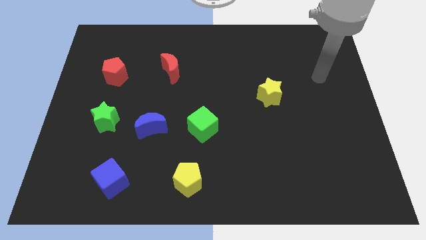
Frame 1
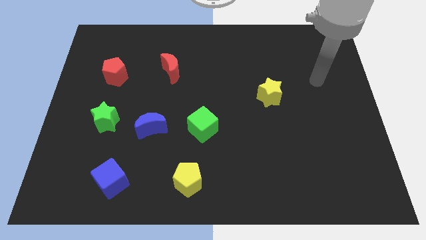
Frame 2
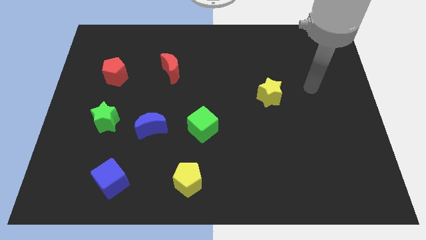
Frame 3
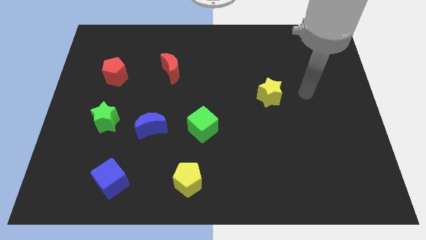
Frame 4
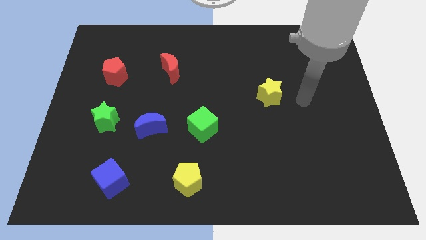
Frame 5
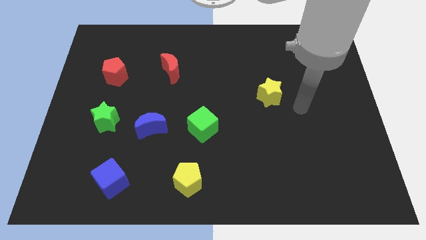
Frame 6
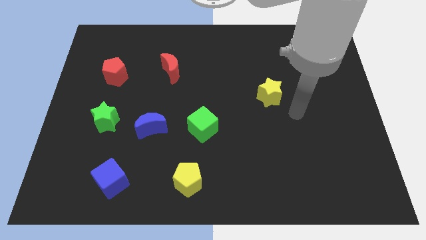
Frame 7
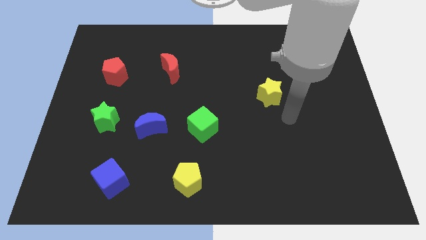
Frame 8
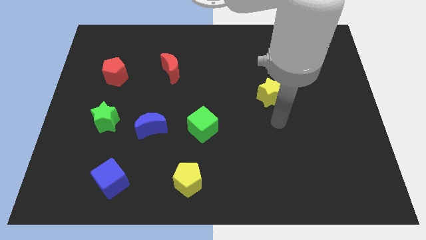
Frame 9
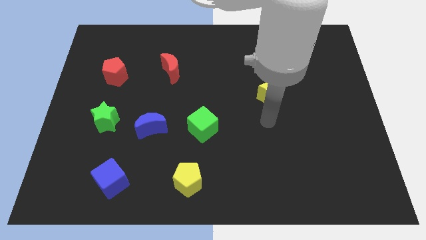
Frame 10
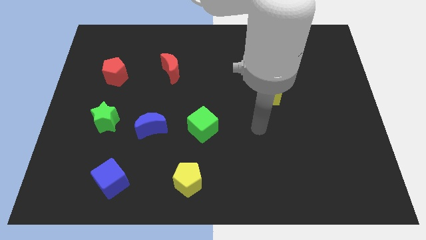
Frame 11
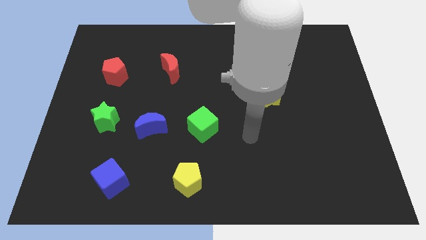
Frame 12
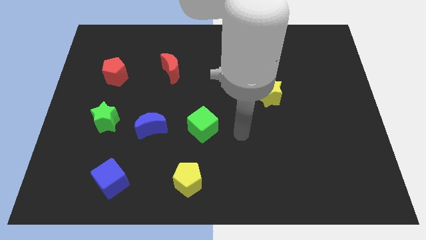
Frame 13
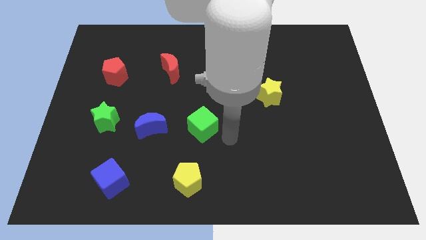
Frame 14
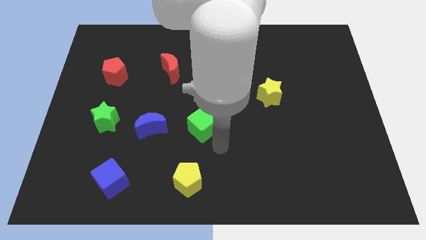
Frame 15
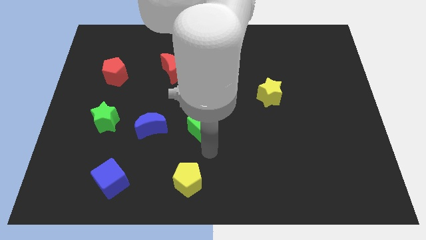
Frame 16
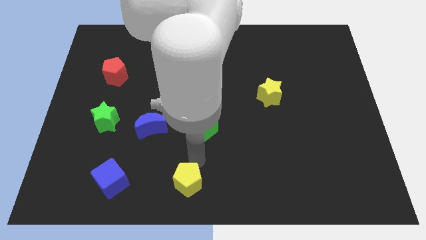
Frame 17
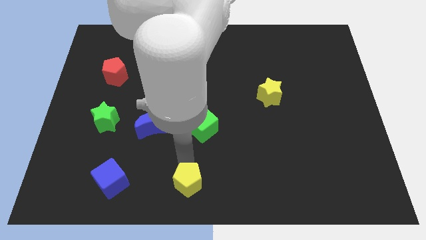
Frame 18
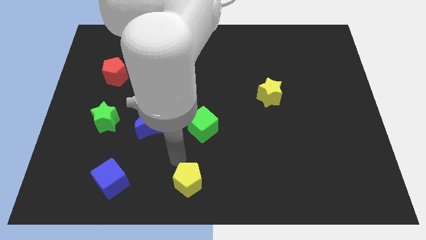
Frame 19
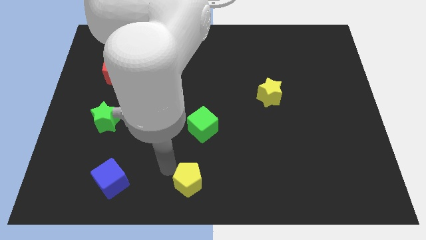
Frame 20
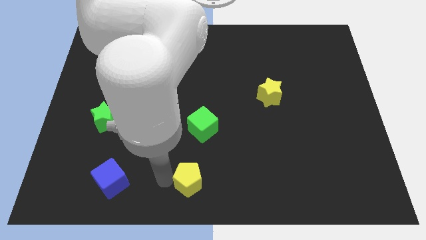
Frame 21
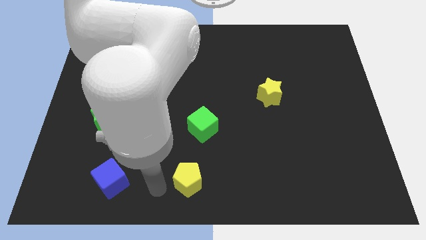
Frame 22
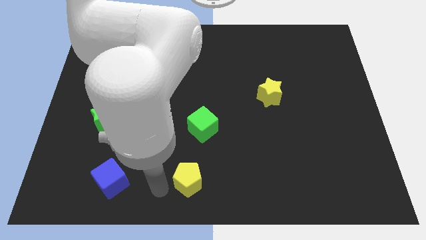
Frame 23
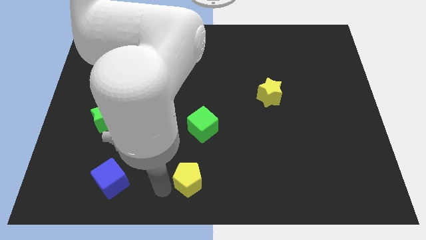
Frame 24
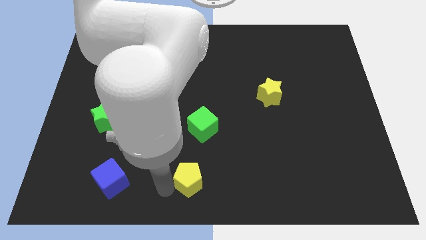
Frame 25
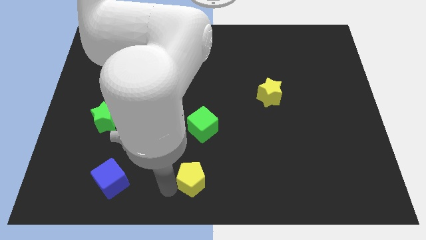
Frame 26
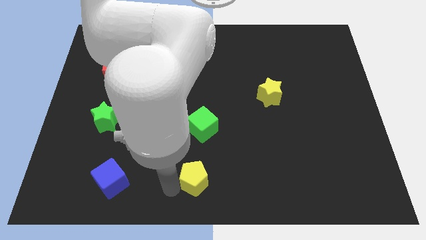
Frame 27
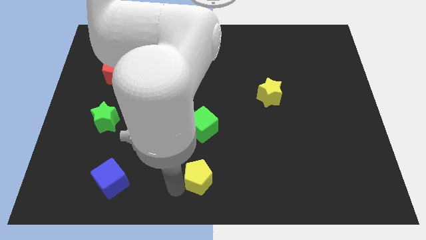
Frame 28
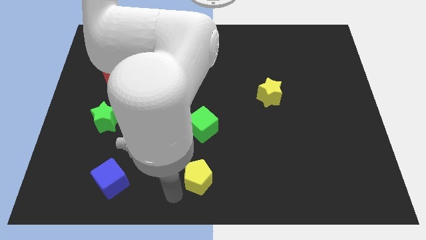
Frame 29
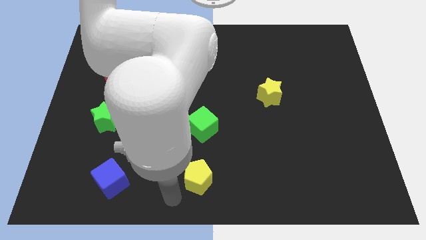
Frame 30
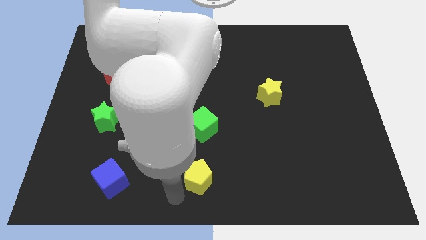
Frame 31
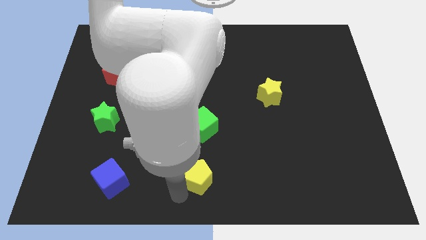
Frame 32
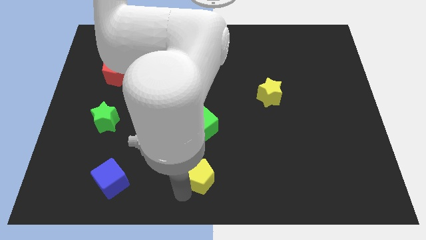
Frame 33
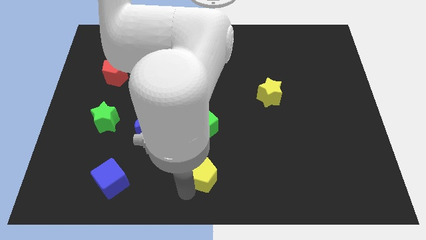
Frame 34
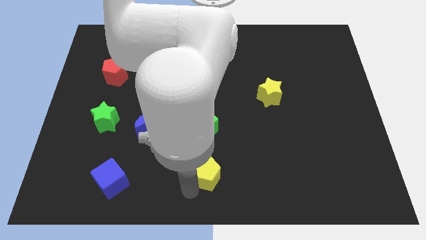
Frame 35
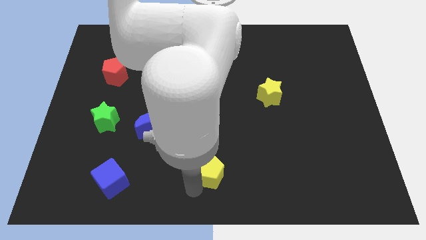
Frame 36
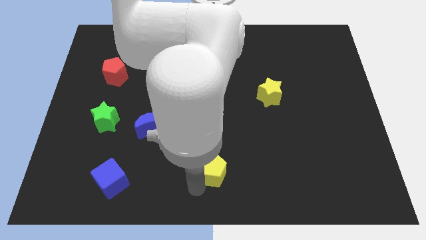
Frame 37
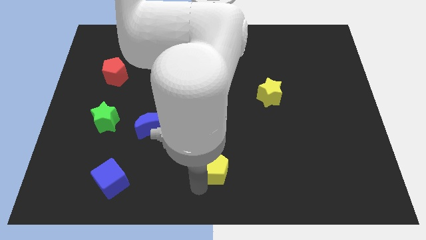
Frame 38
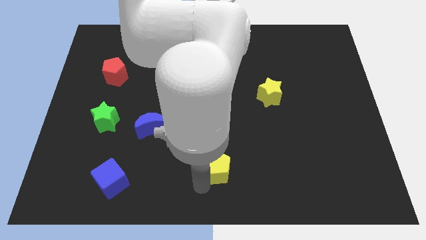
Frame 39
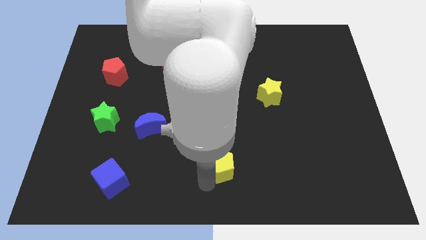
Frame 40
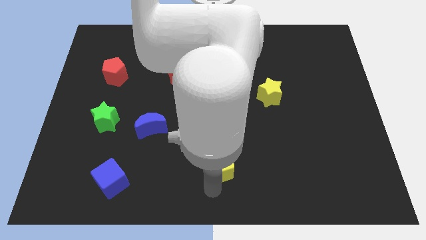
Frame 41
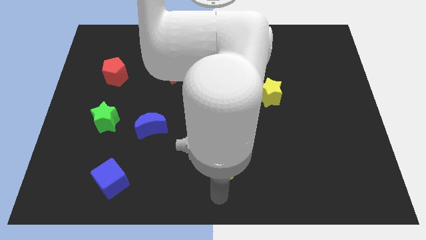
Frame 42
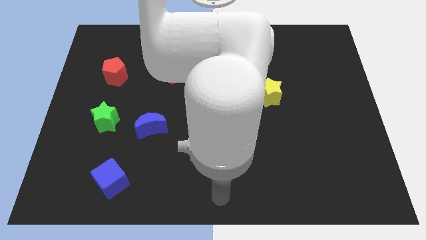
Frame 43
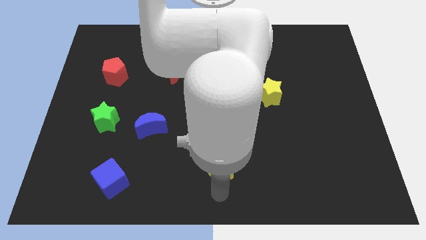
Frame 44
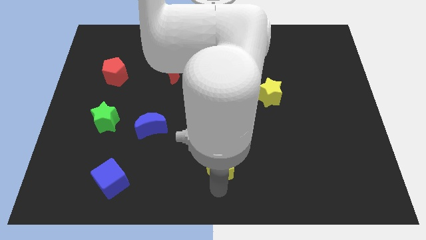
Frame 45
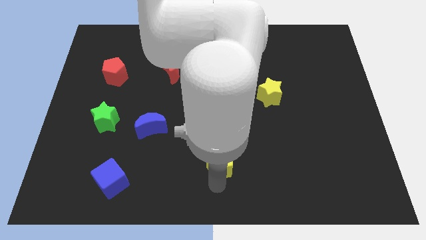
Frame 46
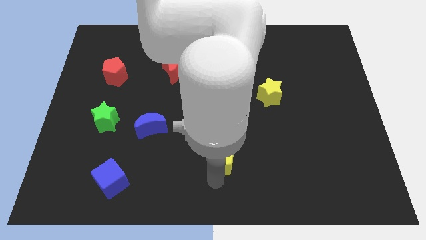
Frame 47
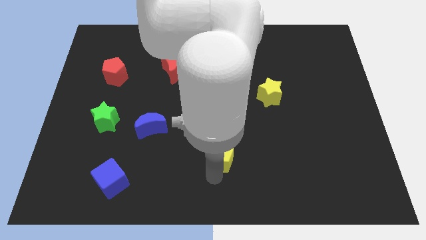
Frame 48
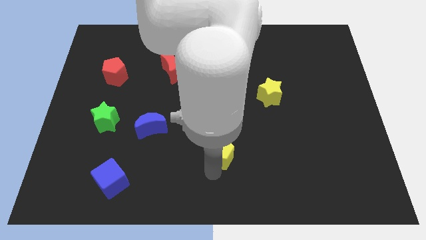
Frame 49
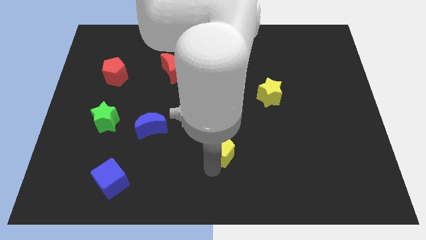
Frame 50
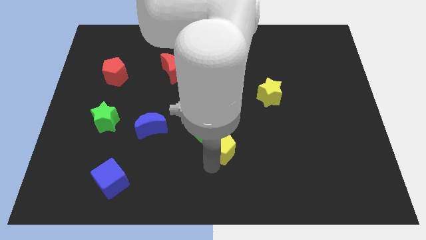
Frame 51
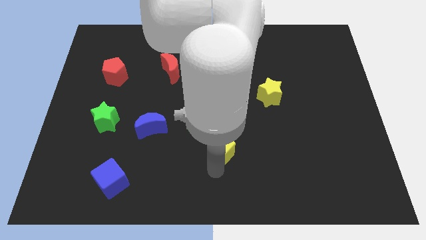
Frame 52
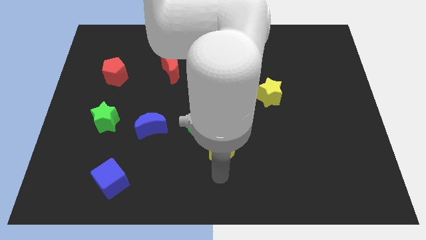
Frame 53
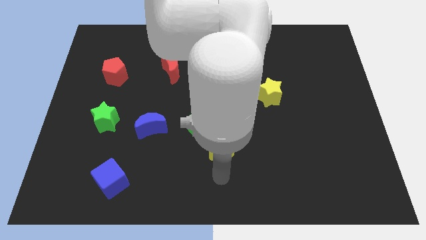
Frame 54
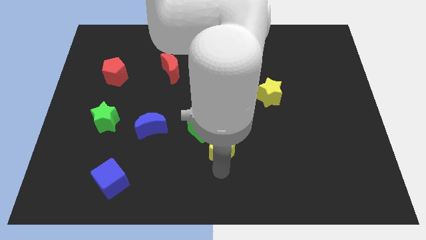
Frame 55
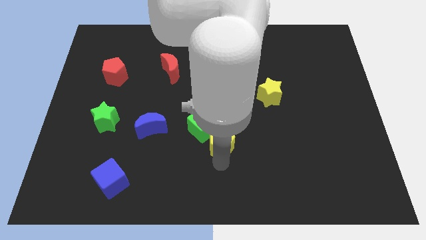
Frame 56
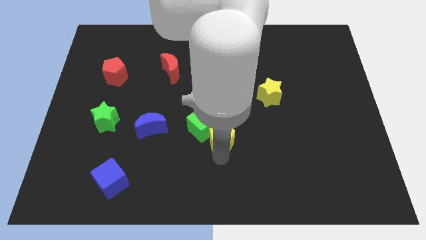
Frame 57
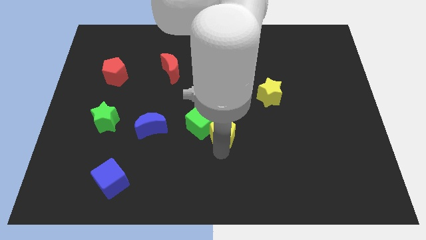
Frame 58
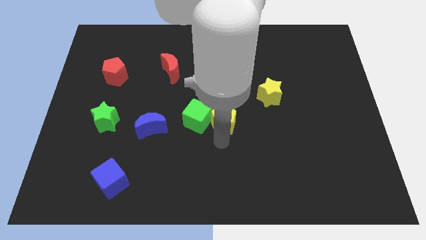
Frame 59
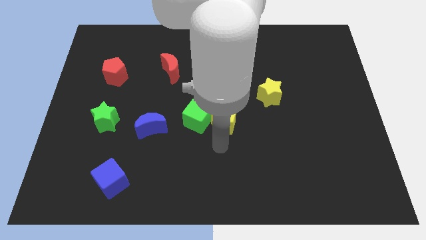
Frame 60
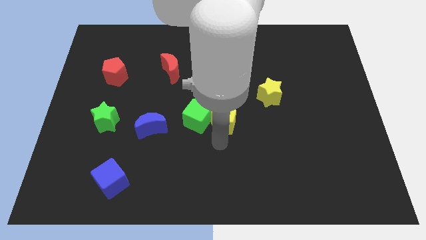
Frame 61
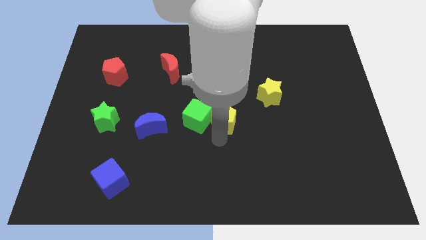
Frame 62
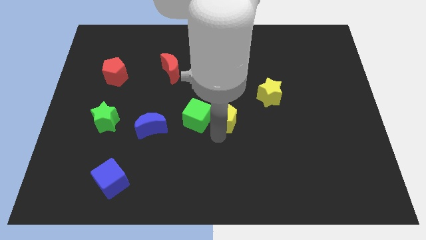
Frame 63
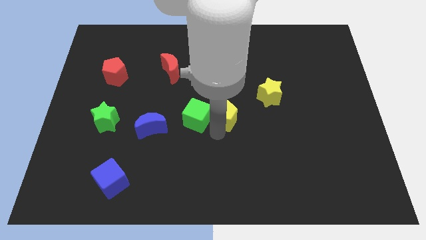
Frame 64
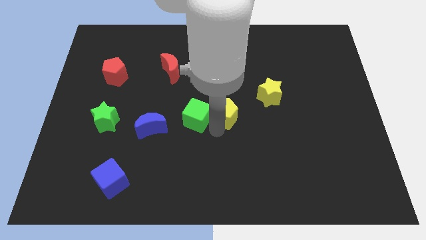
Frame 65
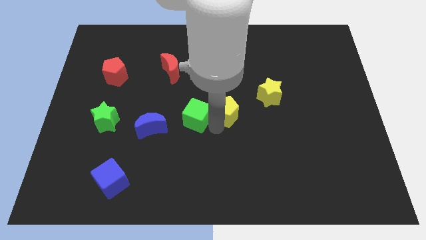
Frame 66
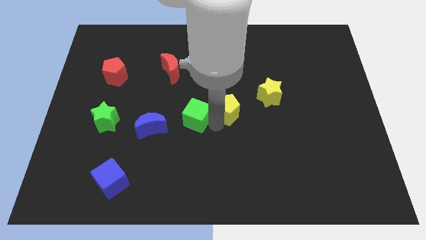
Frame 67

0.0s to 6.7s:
push the yellow pentagon to the left of the yellow star

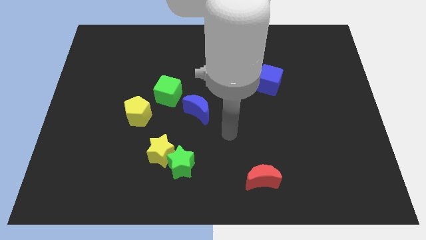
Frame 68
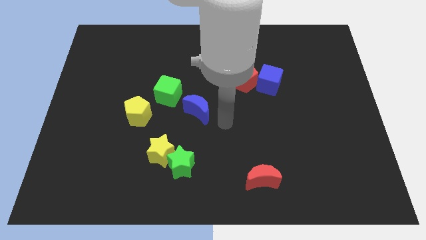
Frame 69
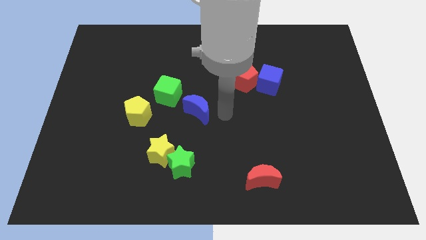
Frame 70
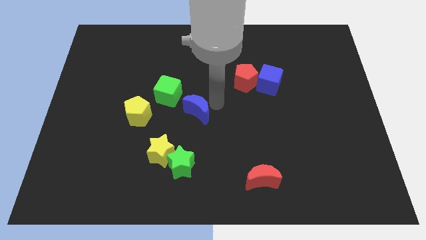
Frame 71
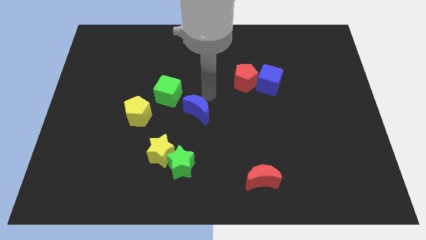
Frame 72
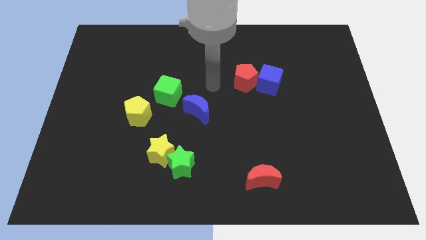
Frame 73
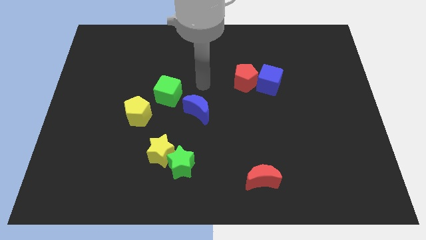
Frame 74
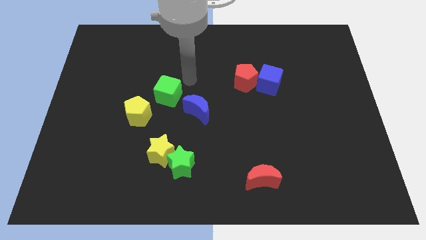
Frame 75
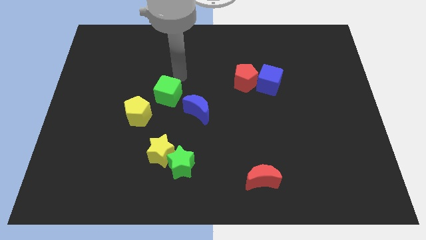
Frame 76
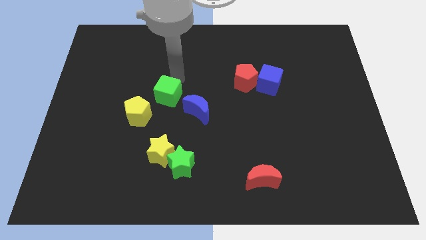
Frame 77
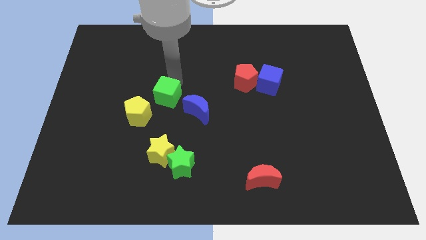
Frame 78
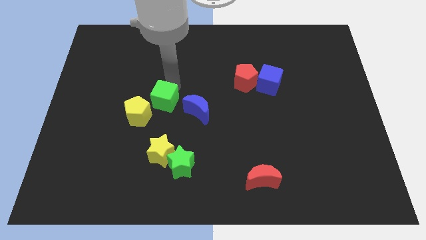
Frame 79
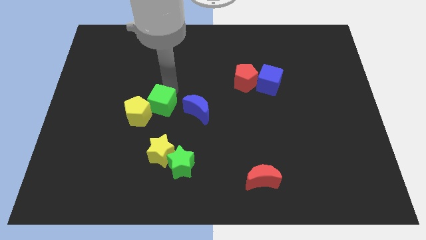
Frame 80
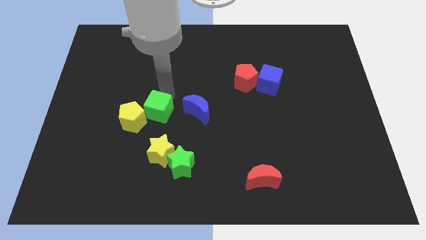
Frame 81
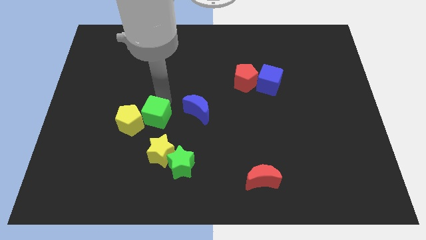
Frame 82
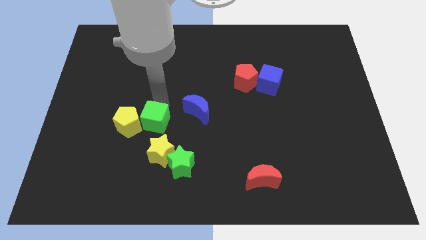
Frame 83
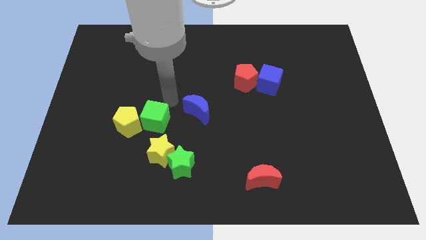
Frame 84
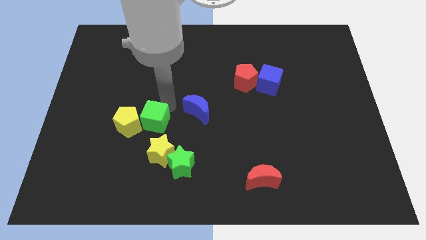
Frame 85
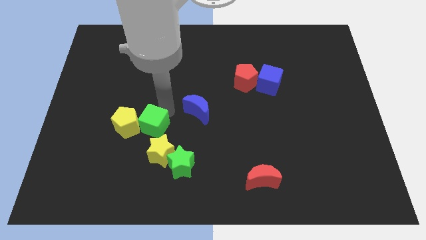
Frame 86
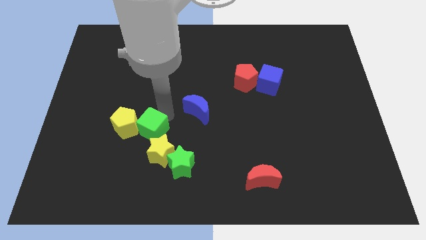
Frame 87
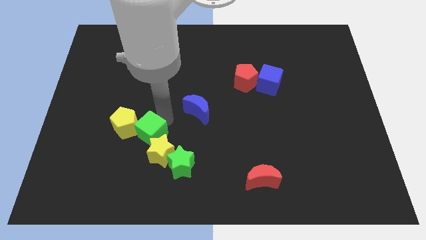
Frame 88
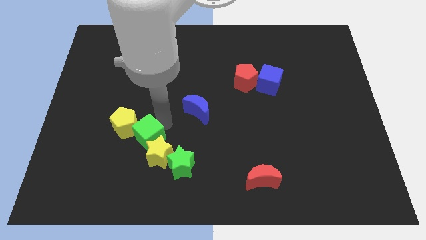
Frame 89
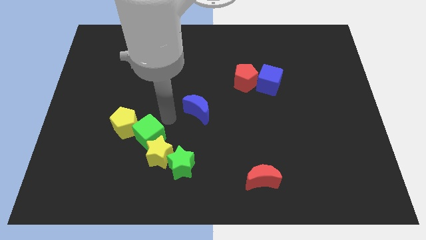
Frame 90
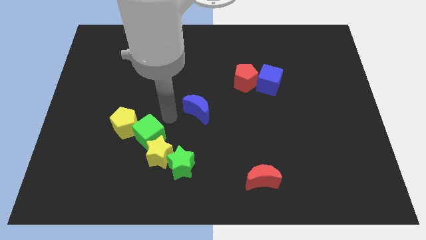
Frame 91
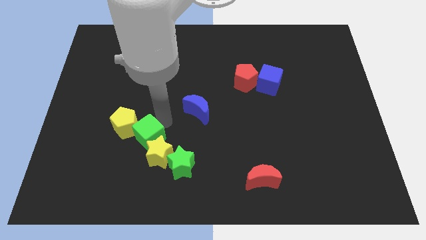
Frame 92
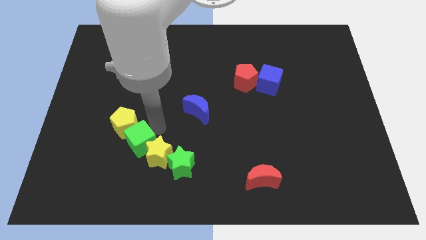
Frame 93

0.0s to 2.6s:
push the green cube to the bottom of the yellow pentagon
